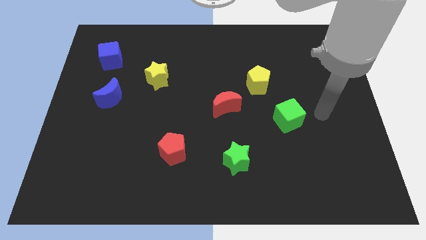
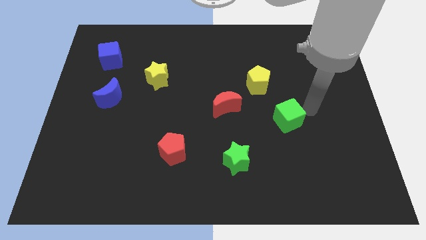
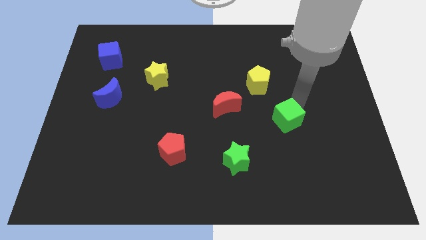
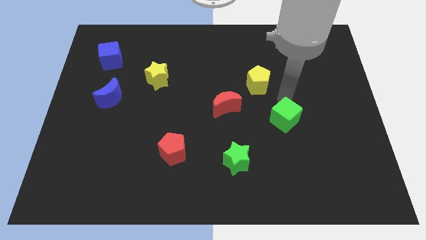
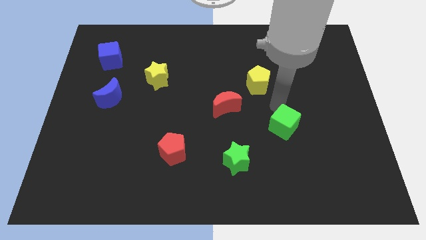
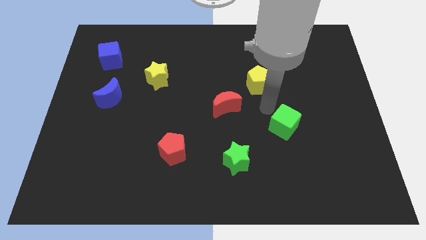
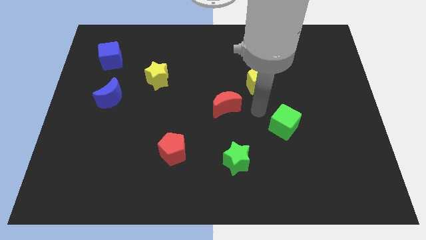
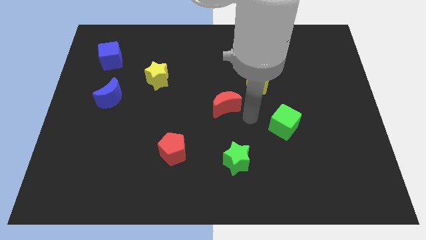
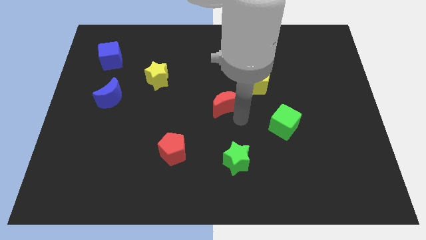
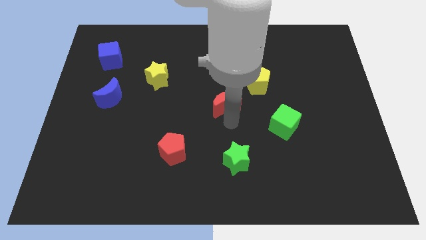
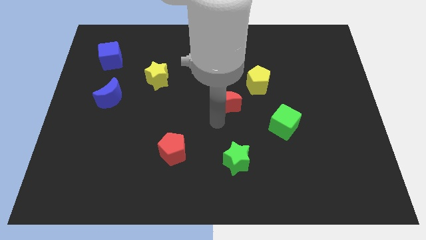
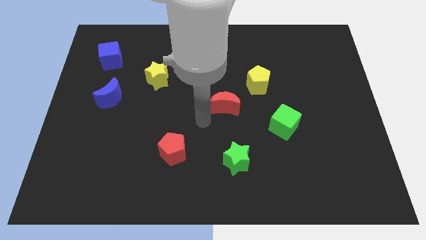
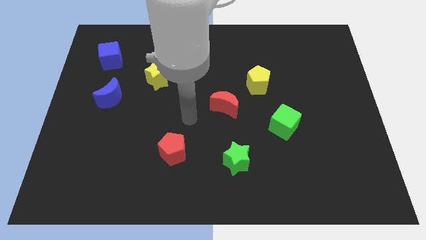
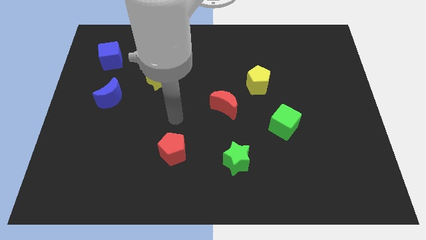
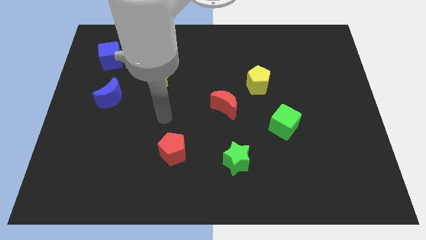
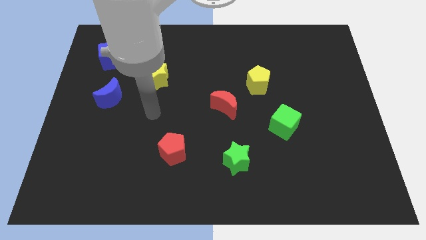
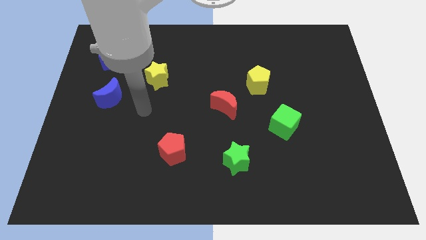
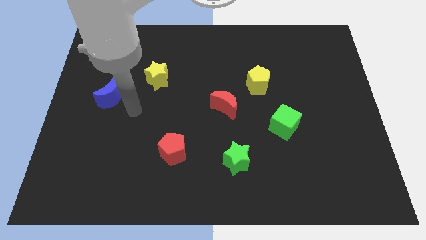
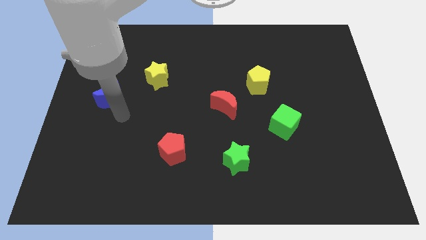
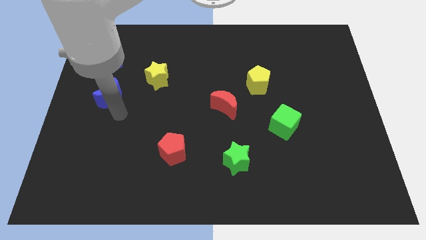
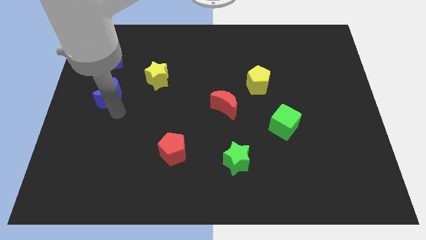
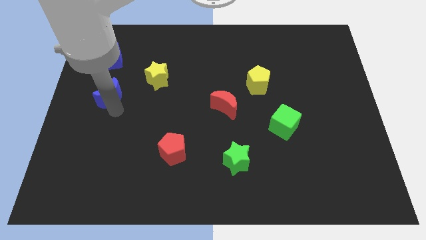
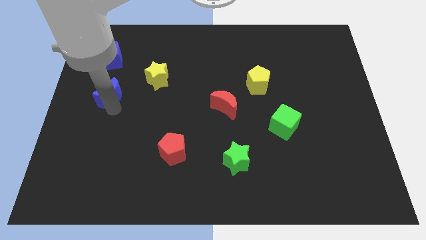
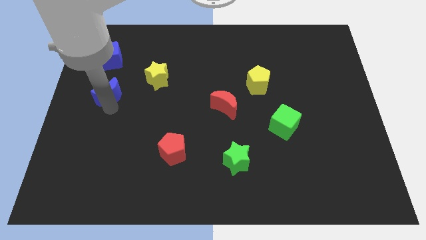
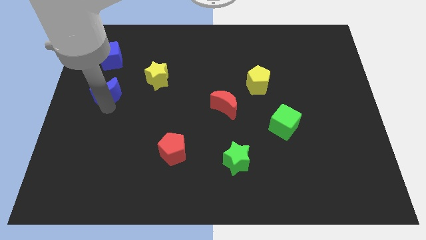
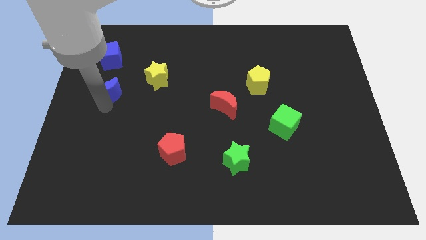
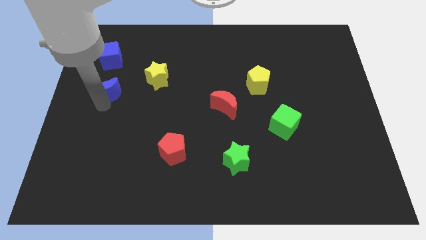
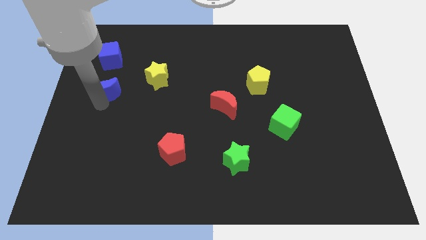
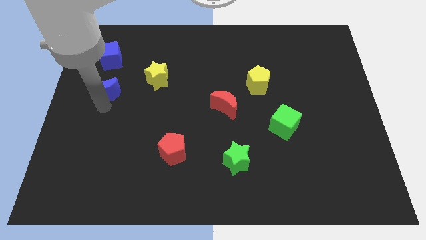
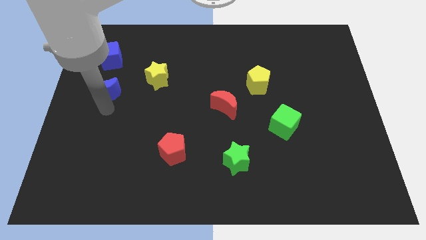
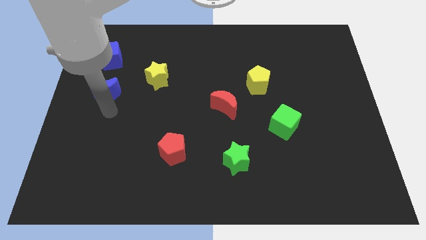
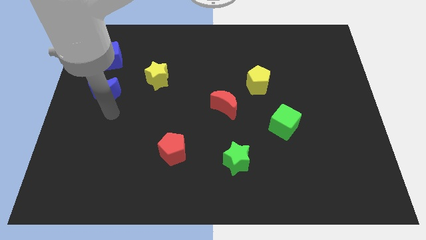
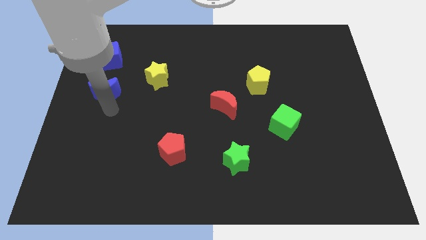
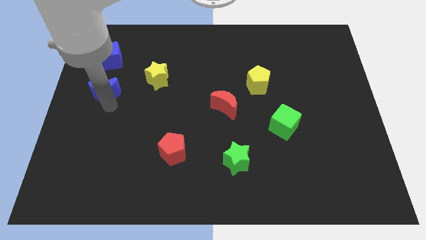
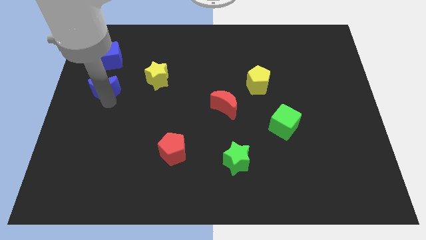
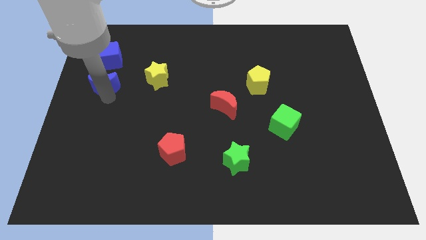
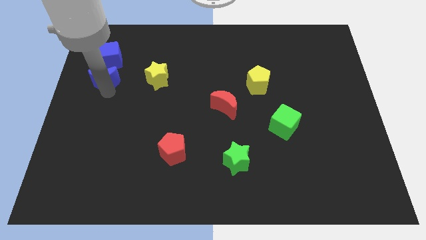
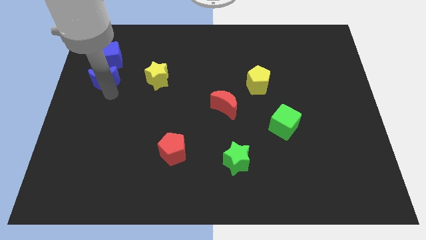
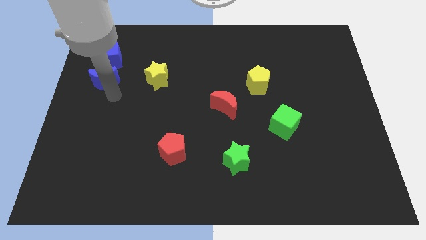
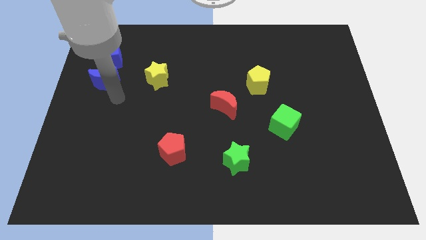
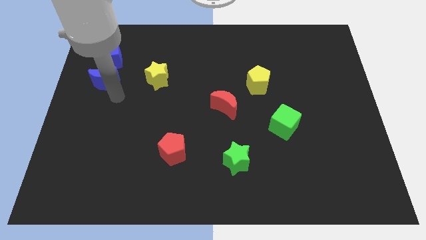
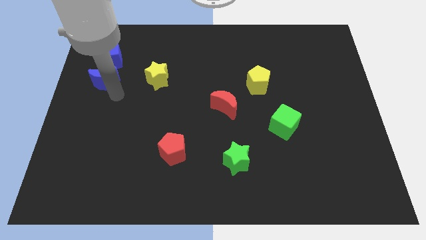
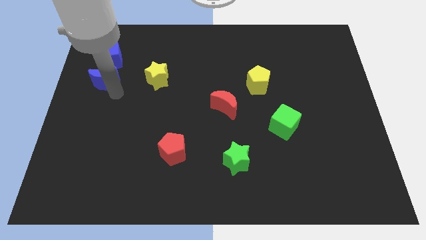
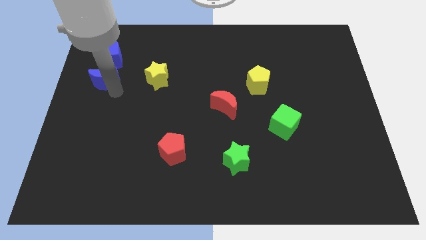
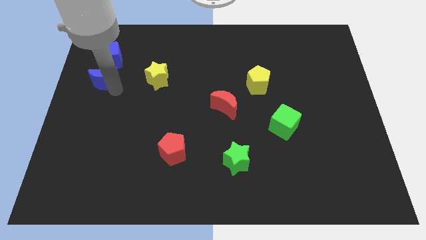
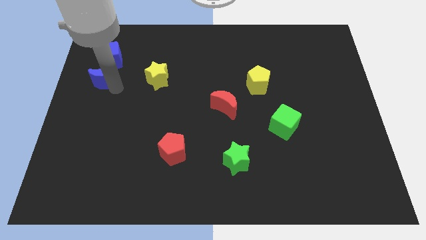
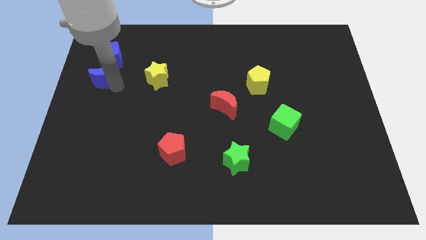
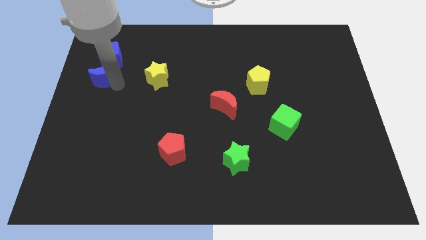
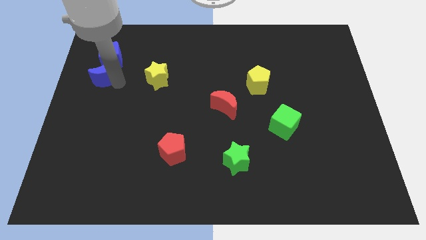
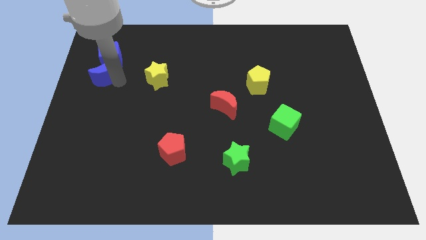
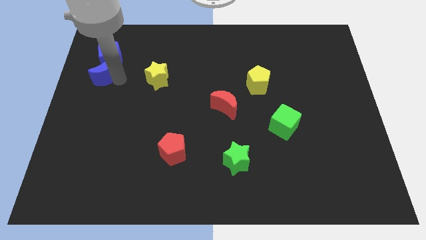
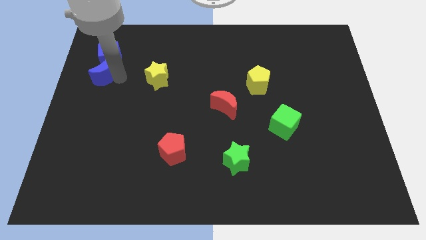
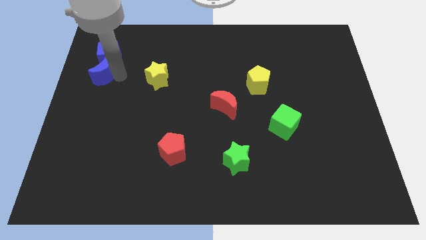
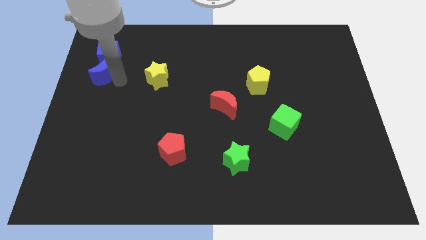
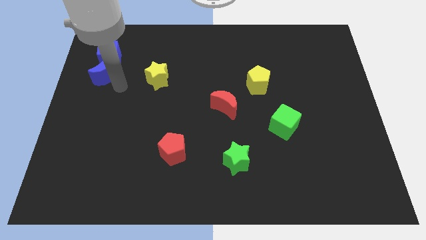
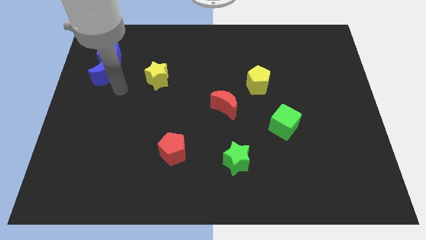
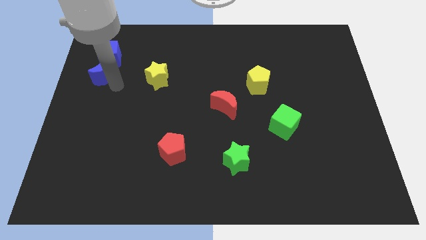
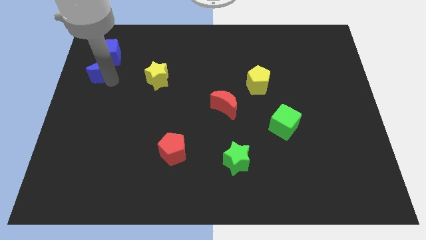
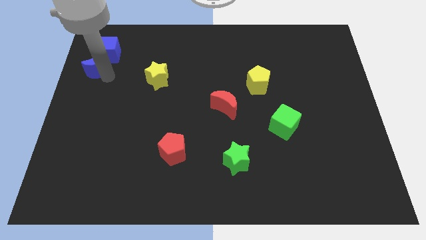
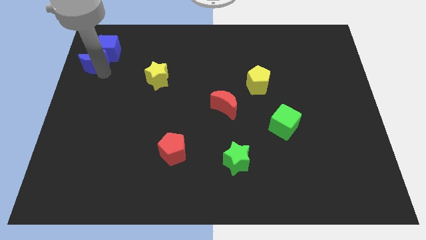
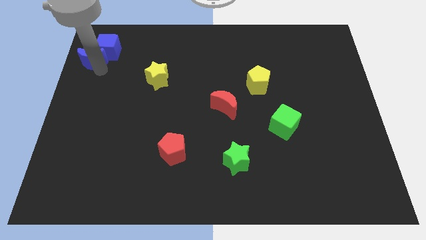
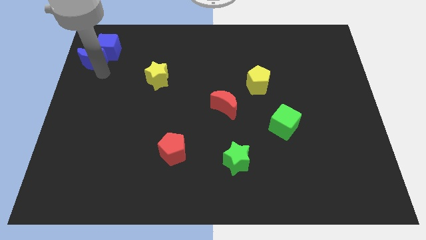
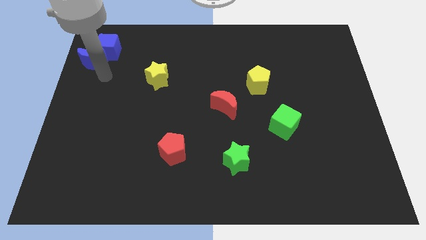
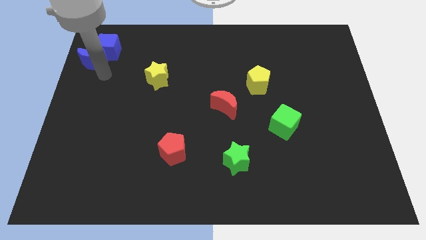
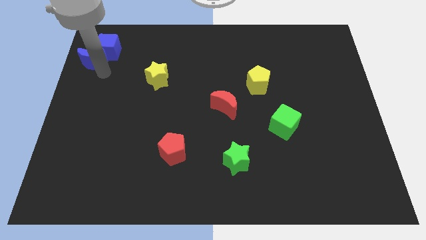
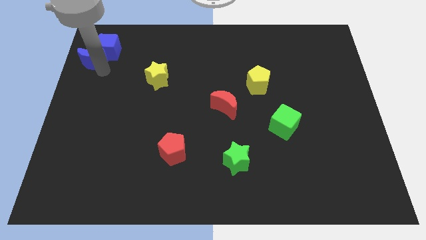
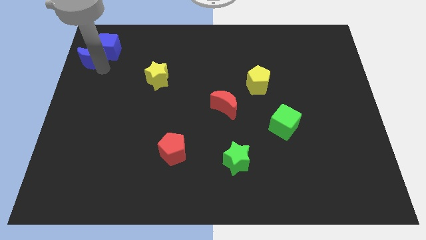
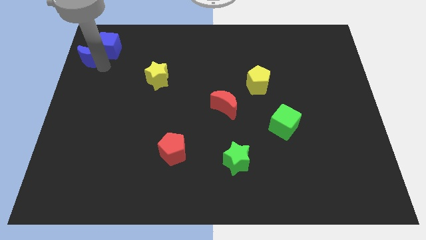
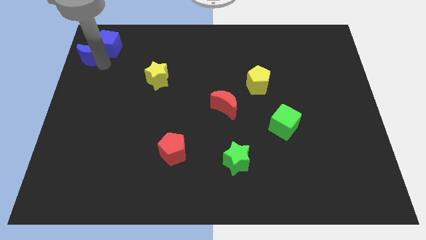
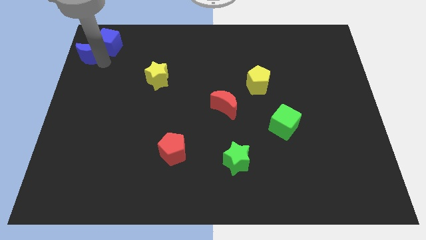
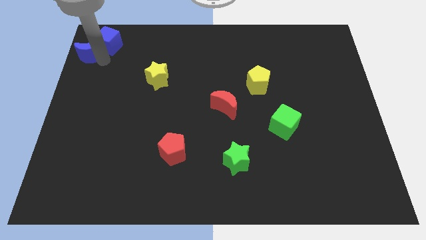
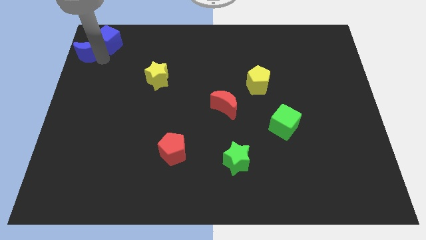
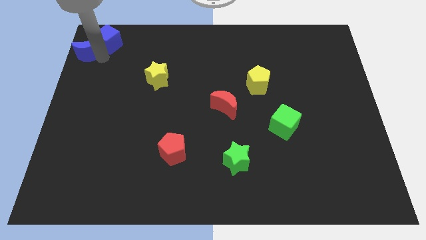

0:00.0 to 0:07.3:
move the blue moon to the top left corner
